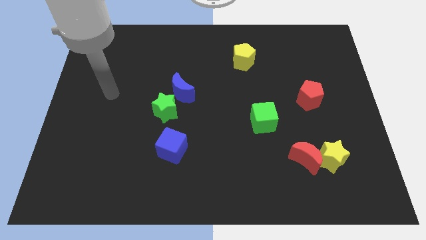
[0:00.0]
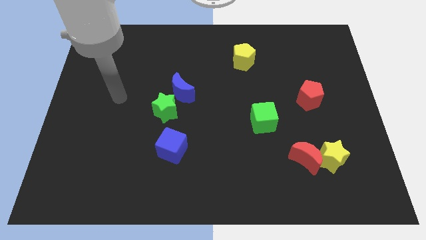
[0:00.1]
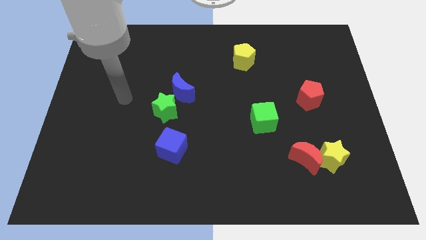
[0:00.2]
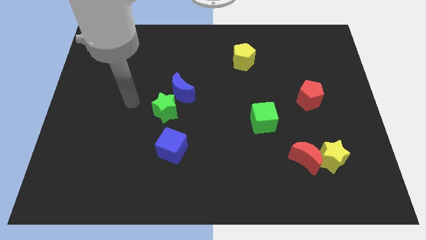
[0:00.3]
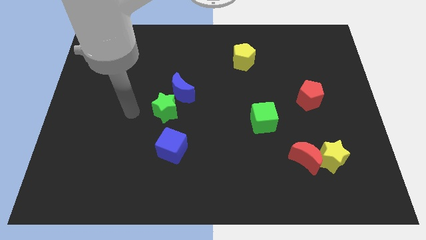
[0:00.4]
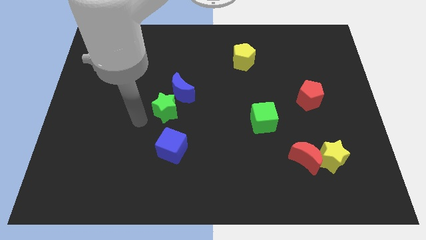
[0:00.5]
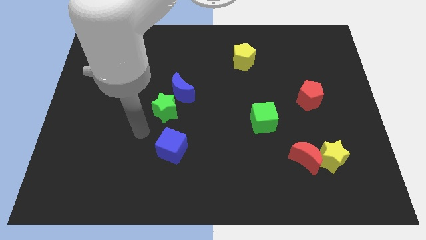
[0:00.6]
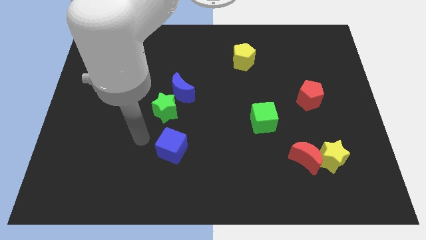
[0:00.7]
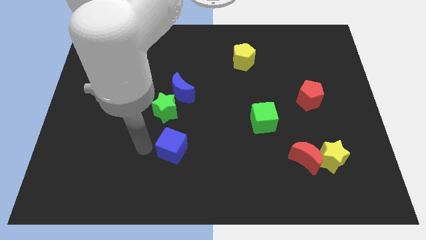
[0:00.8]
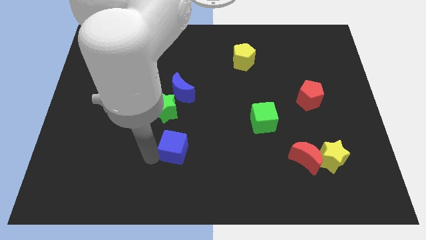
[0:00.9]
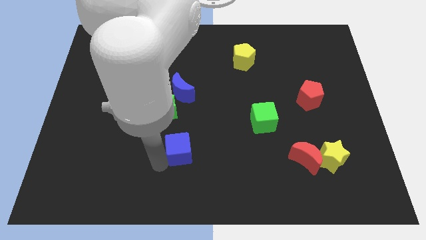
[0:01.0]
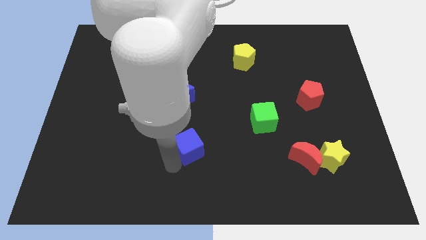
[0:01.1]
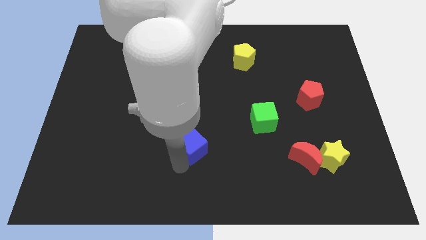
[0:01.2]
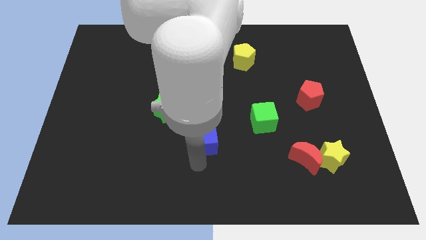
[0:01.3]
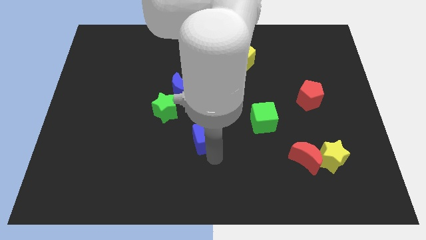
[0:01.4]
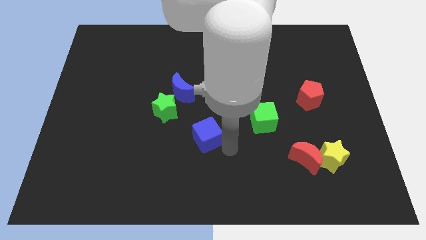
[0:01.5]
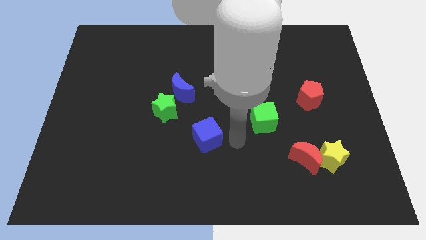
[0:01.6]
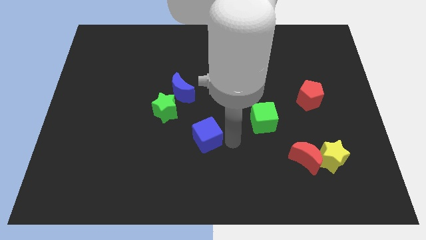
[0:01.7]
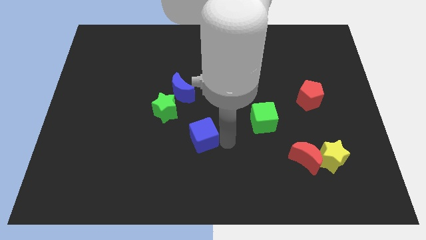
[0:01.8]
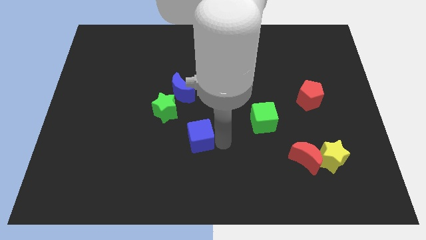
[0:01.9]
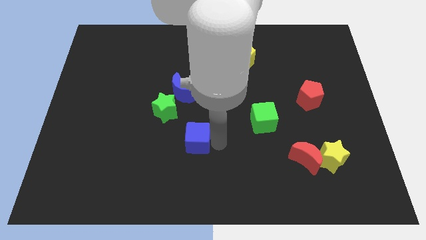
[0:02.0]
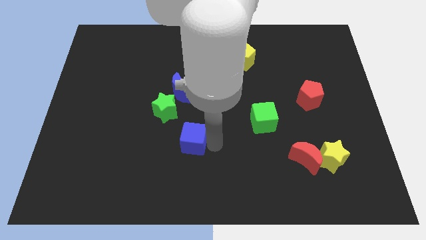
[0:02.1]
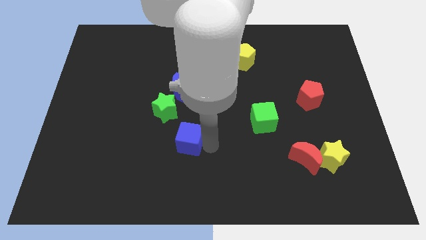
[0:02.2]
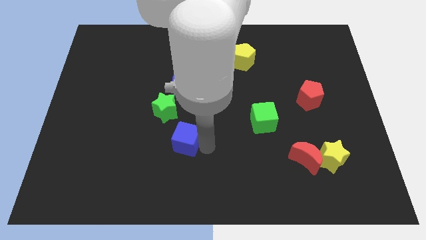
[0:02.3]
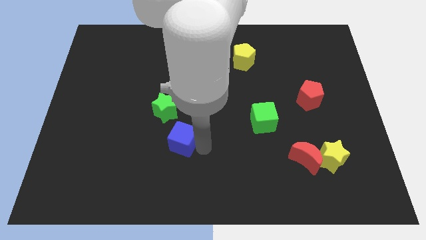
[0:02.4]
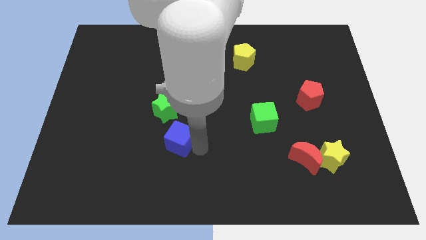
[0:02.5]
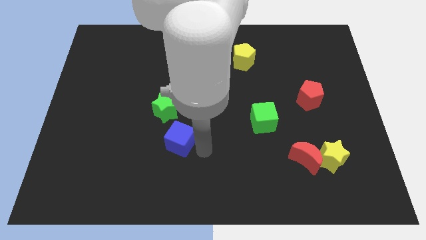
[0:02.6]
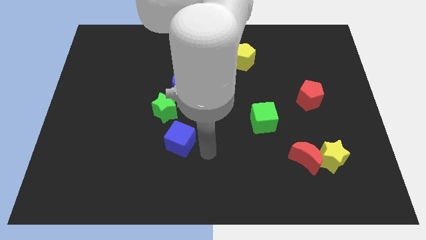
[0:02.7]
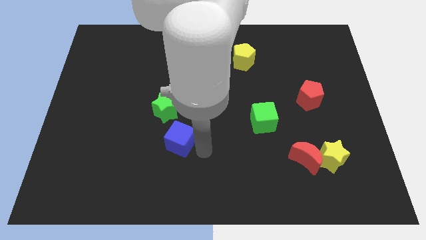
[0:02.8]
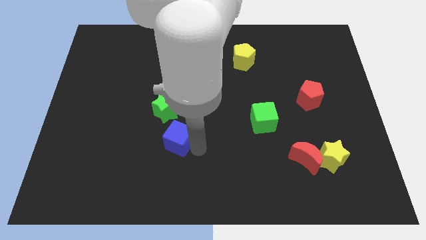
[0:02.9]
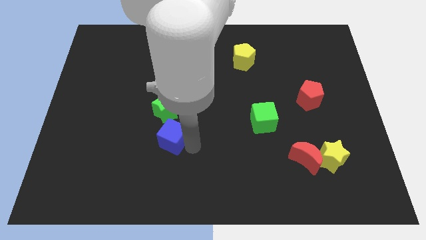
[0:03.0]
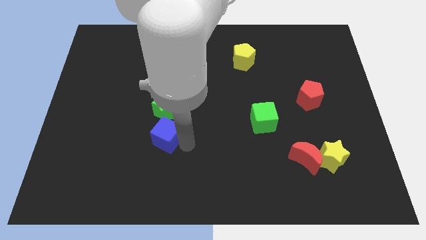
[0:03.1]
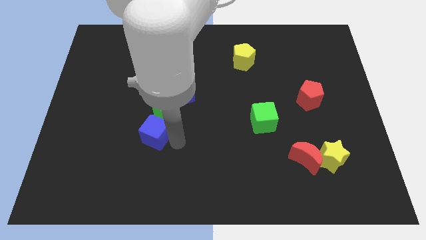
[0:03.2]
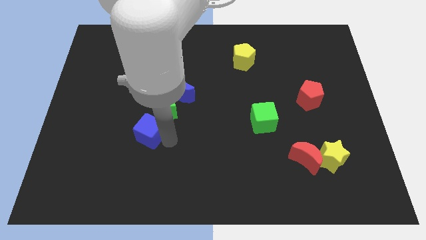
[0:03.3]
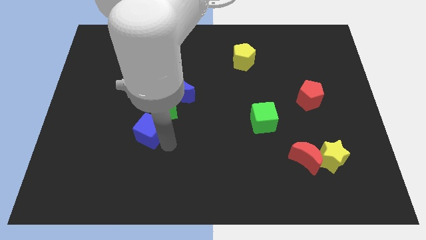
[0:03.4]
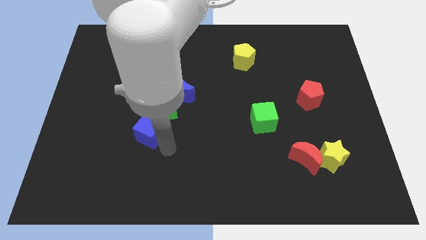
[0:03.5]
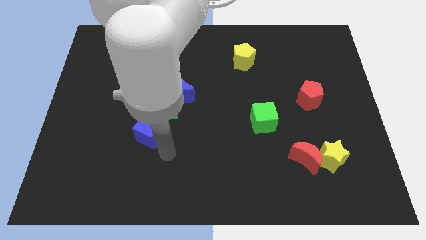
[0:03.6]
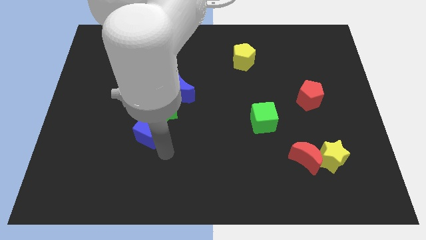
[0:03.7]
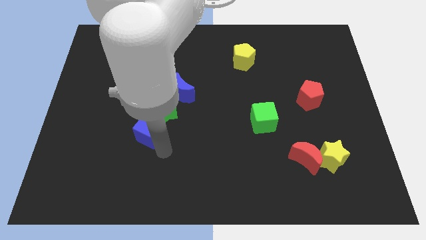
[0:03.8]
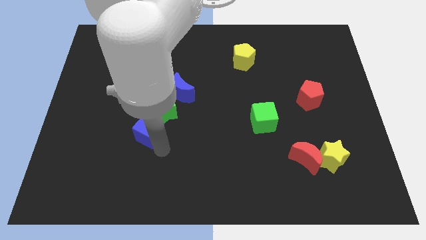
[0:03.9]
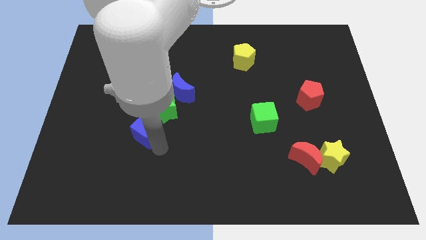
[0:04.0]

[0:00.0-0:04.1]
slightly push the blue cube upwards and to the left

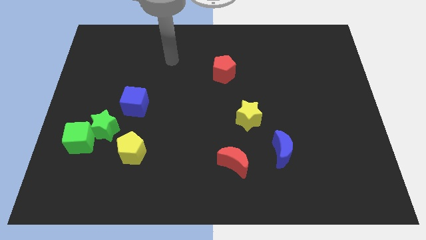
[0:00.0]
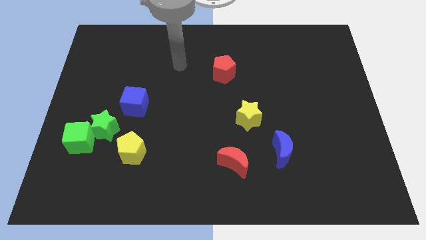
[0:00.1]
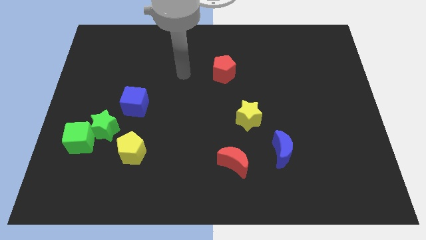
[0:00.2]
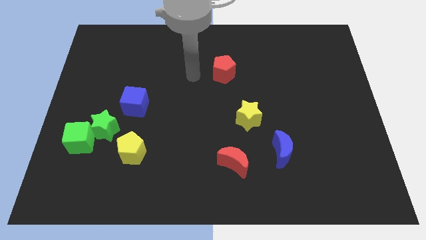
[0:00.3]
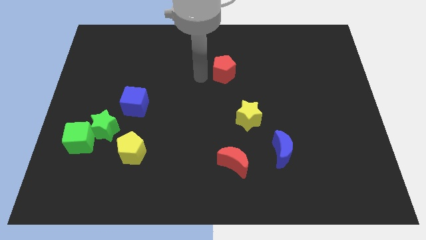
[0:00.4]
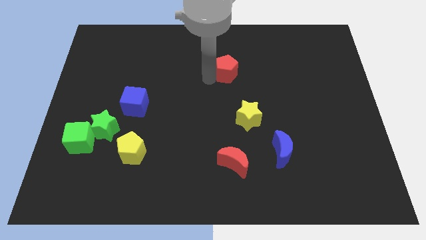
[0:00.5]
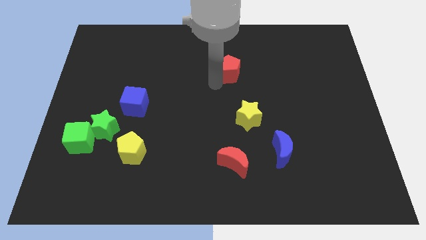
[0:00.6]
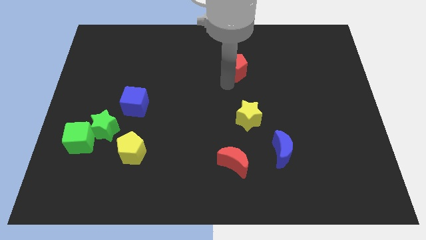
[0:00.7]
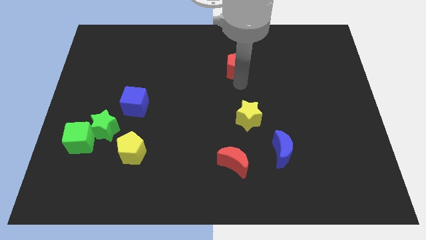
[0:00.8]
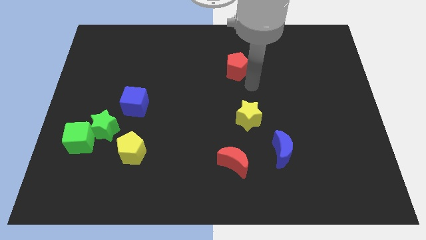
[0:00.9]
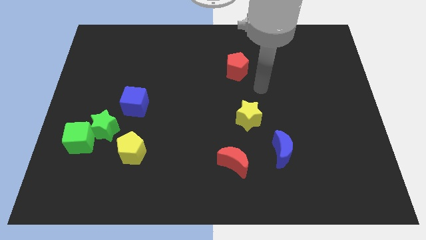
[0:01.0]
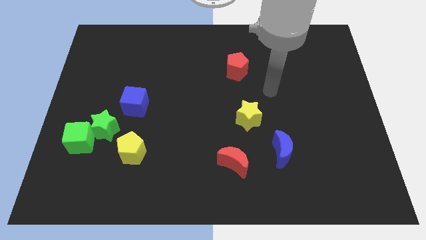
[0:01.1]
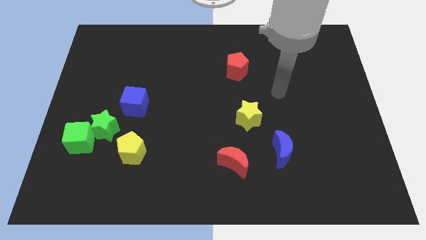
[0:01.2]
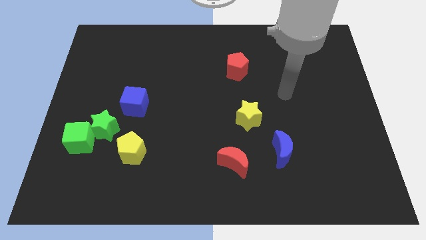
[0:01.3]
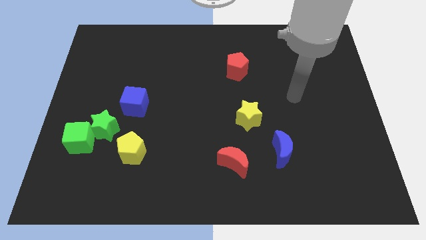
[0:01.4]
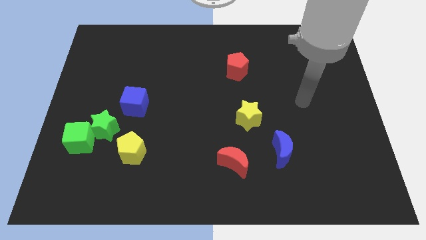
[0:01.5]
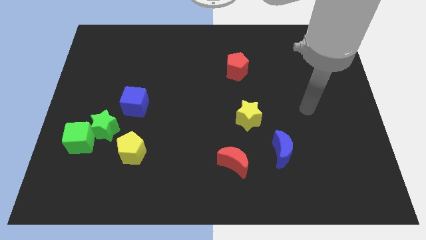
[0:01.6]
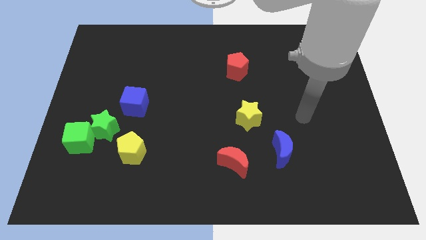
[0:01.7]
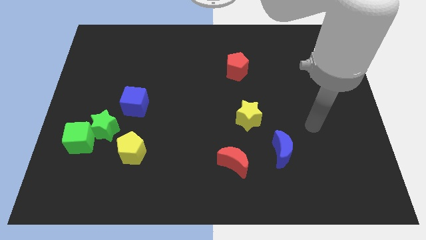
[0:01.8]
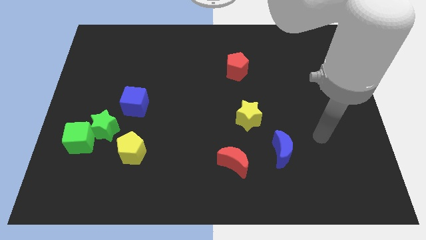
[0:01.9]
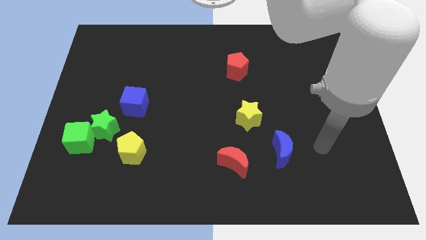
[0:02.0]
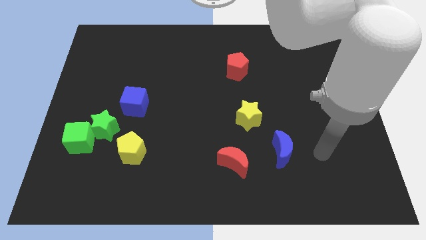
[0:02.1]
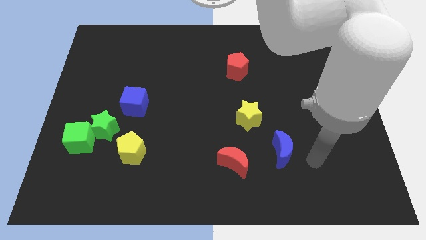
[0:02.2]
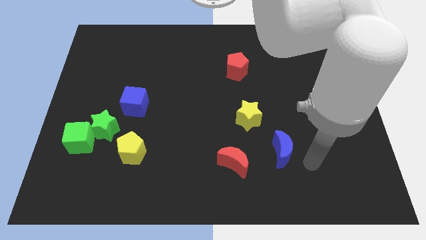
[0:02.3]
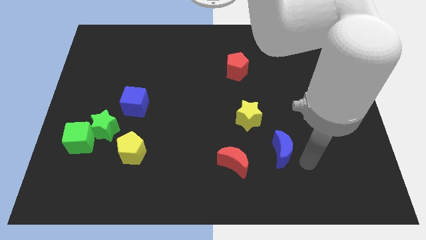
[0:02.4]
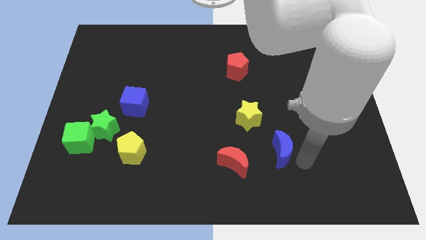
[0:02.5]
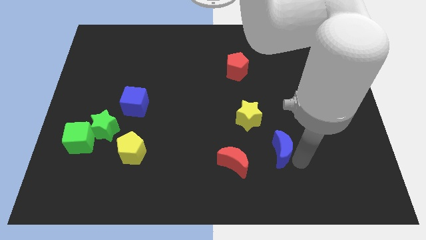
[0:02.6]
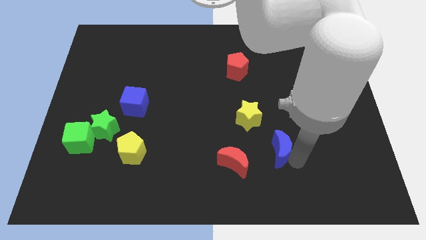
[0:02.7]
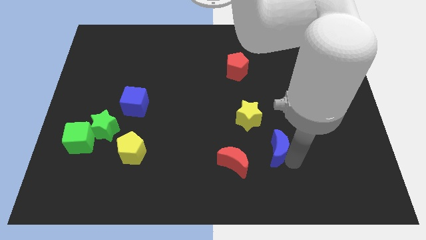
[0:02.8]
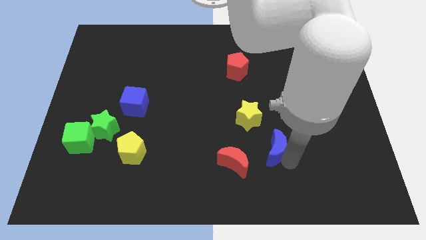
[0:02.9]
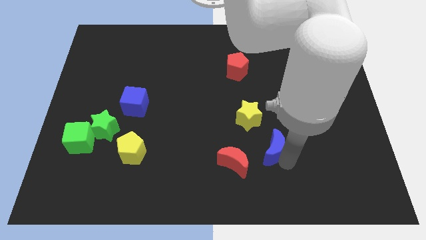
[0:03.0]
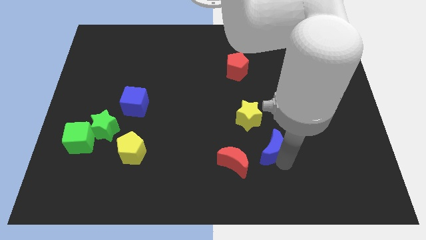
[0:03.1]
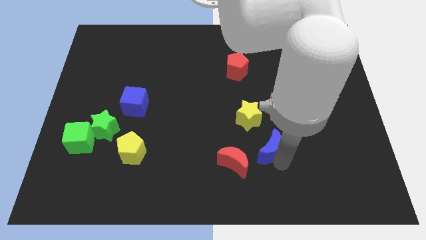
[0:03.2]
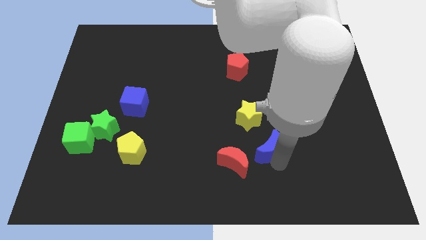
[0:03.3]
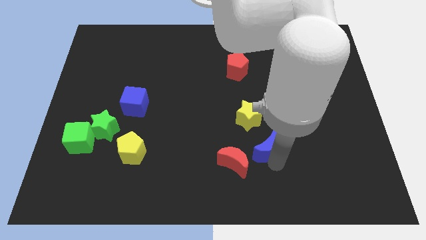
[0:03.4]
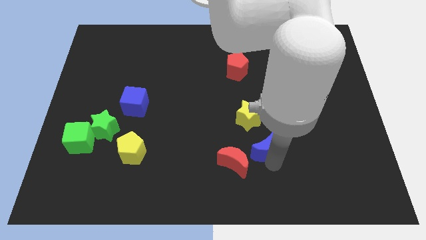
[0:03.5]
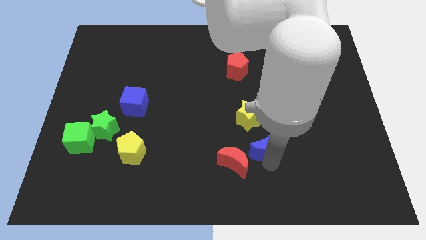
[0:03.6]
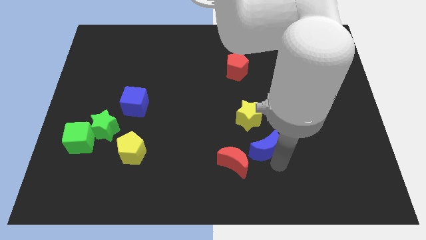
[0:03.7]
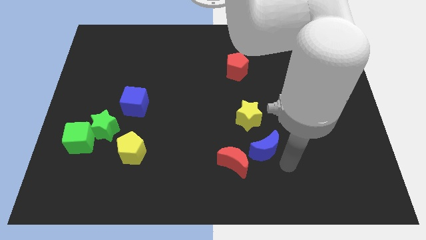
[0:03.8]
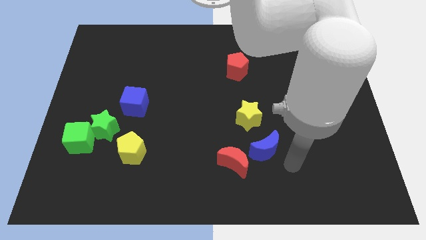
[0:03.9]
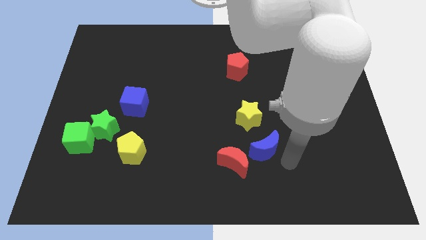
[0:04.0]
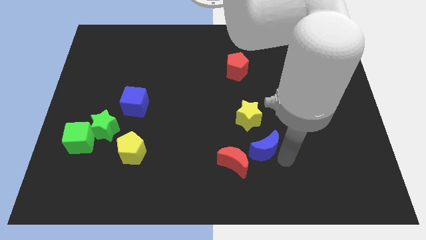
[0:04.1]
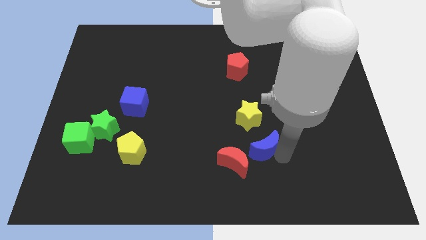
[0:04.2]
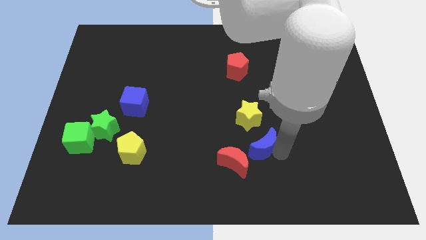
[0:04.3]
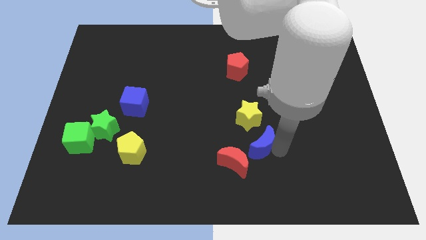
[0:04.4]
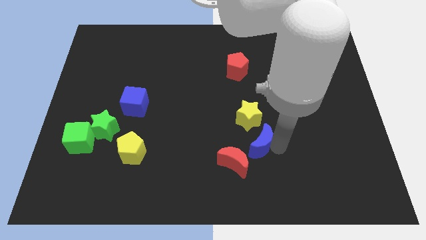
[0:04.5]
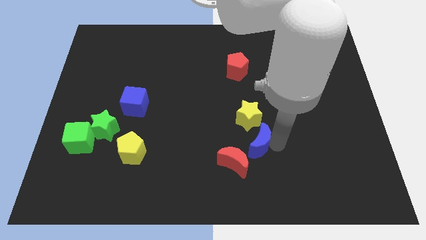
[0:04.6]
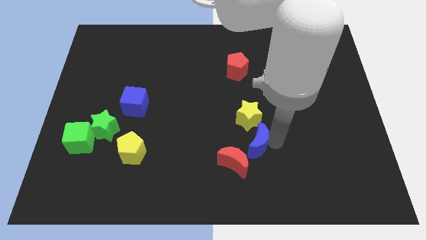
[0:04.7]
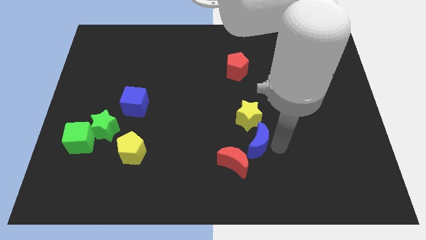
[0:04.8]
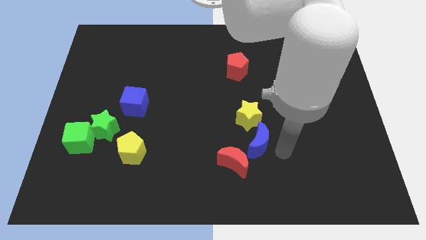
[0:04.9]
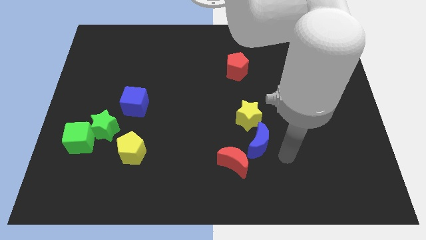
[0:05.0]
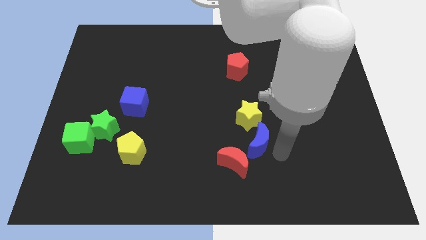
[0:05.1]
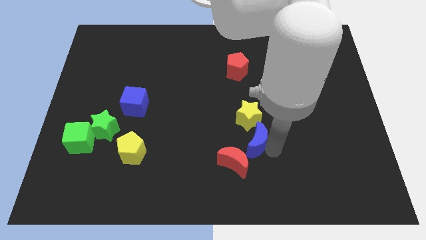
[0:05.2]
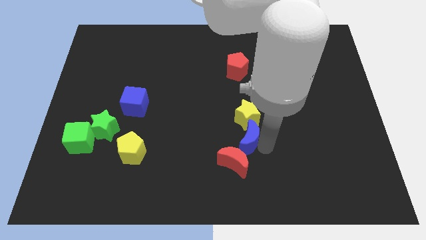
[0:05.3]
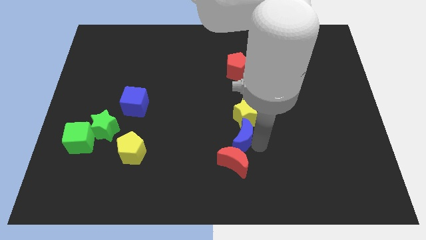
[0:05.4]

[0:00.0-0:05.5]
push the blue moon a little left
